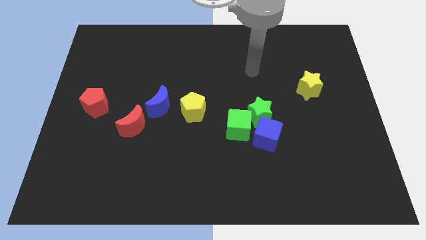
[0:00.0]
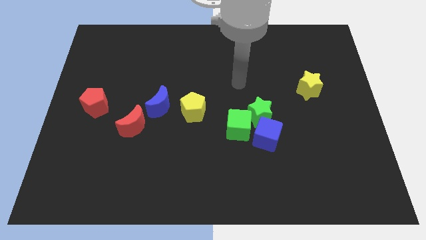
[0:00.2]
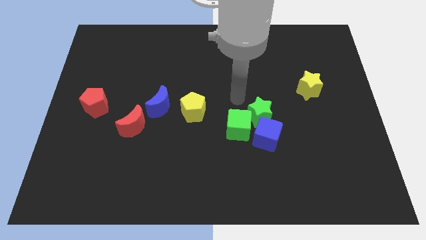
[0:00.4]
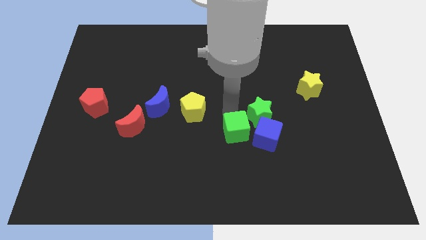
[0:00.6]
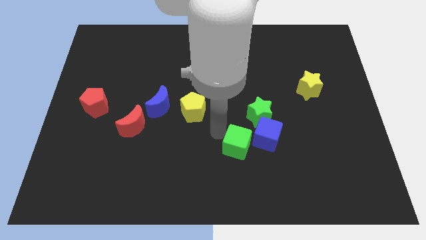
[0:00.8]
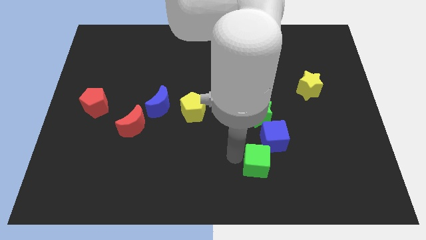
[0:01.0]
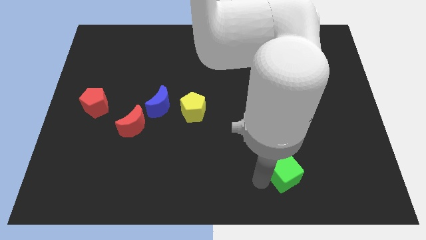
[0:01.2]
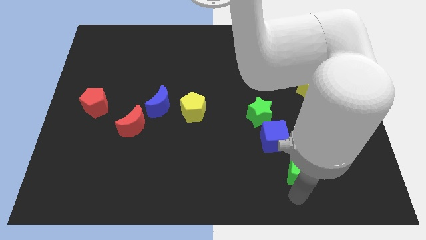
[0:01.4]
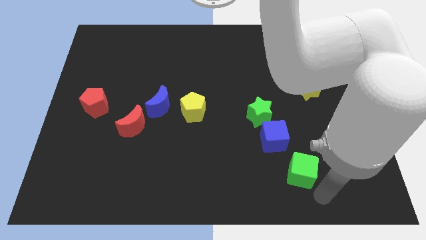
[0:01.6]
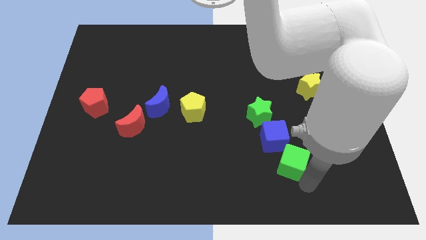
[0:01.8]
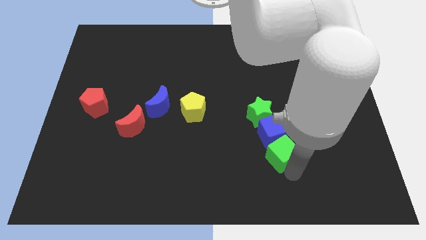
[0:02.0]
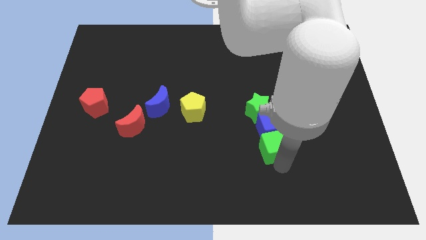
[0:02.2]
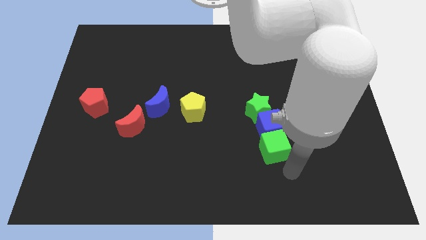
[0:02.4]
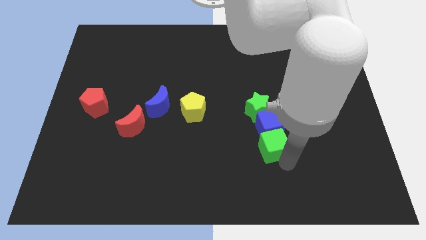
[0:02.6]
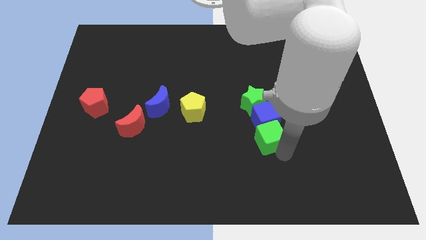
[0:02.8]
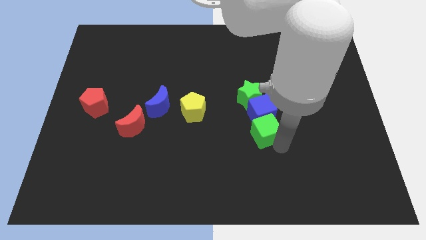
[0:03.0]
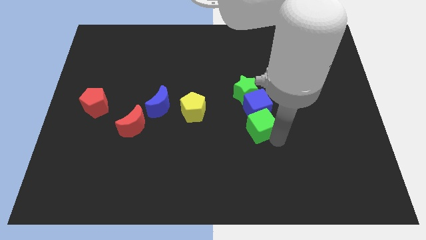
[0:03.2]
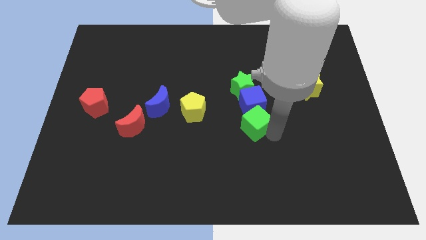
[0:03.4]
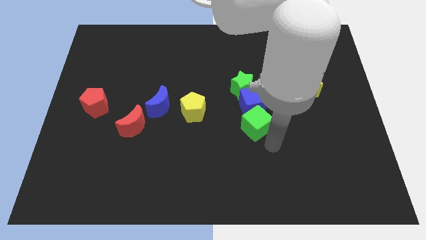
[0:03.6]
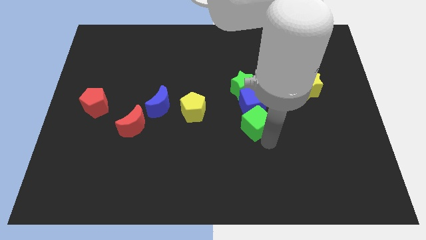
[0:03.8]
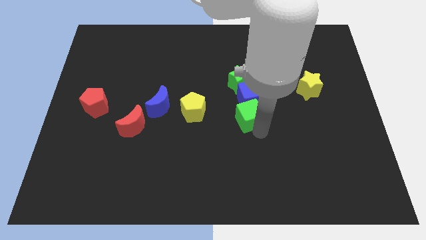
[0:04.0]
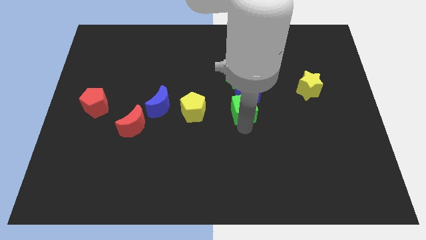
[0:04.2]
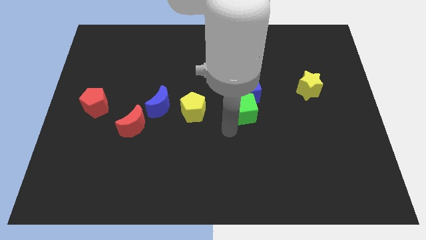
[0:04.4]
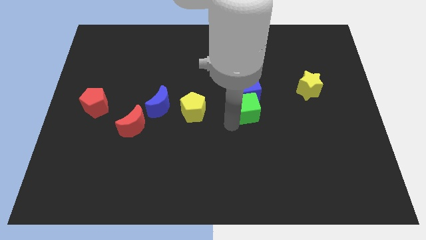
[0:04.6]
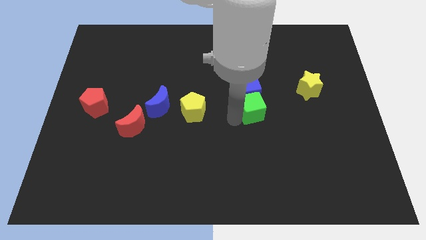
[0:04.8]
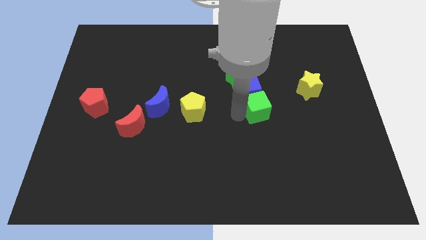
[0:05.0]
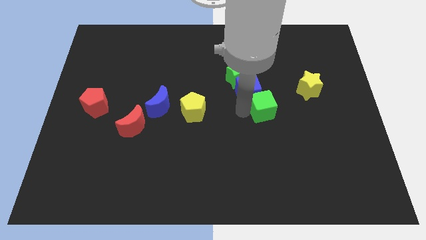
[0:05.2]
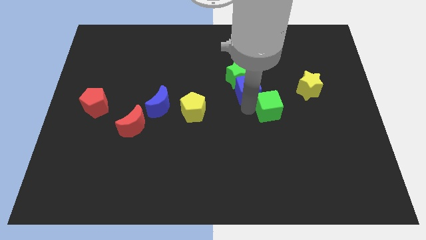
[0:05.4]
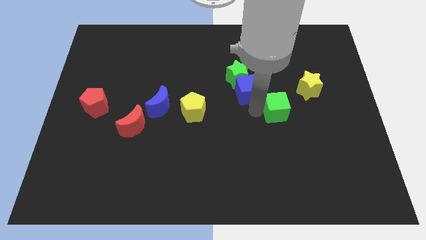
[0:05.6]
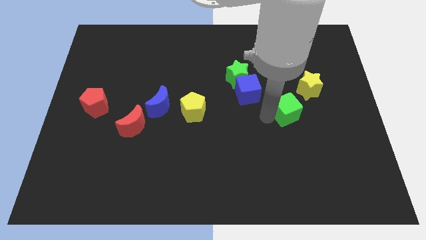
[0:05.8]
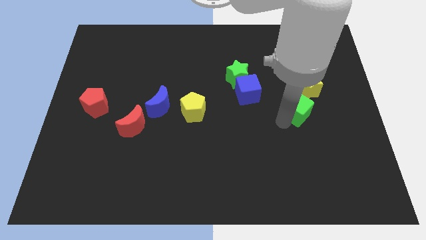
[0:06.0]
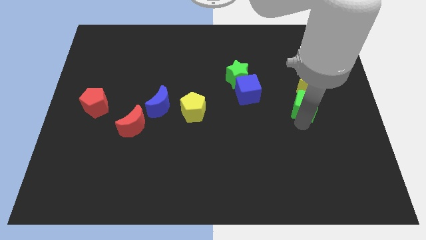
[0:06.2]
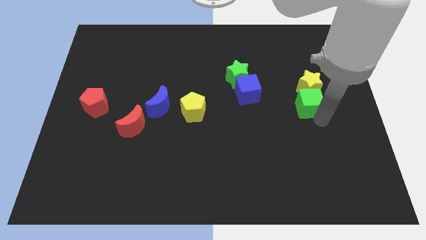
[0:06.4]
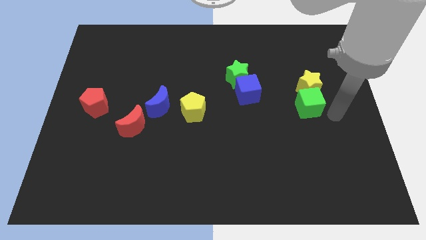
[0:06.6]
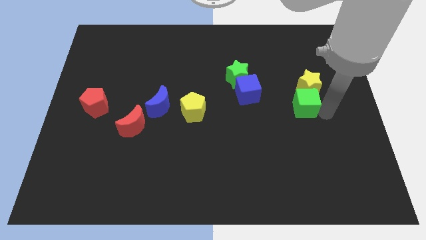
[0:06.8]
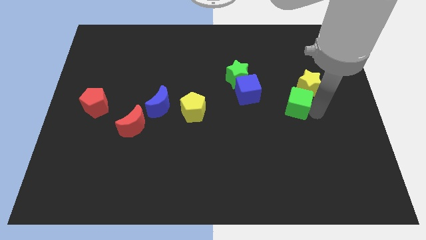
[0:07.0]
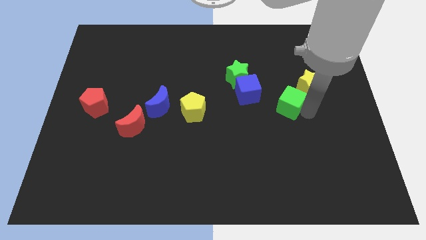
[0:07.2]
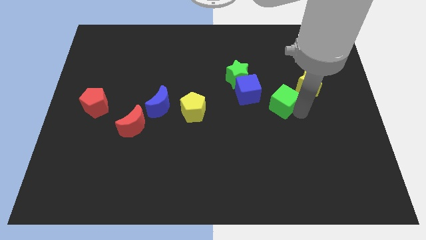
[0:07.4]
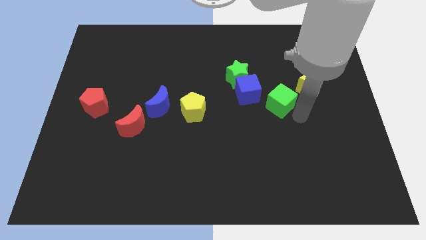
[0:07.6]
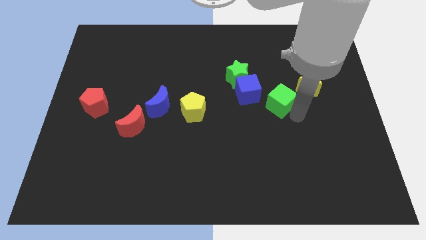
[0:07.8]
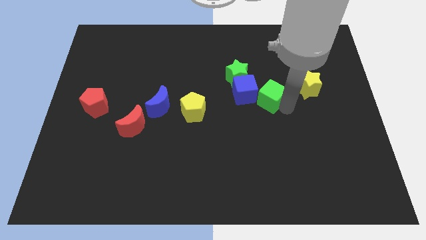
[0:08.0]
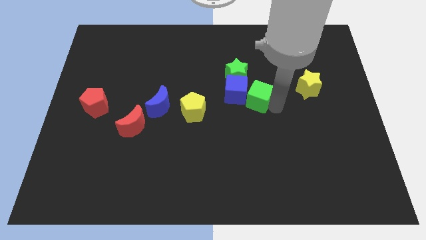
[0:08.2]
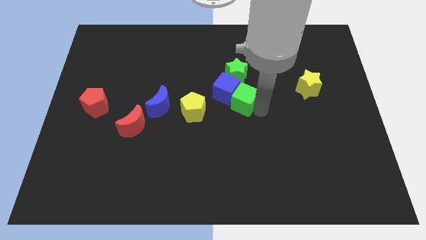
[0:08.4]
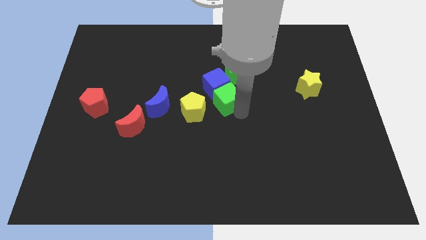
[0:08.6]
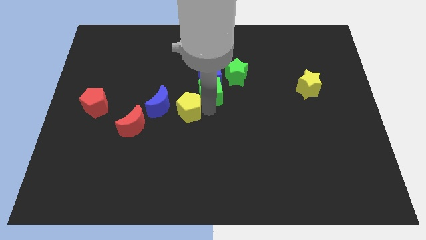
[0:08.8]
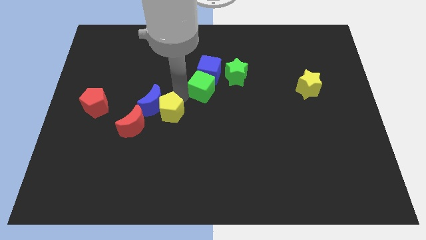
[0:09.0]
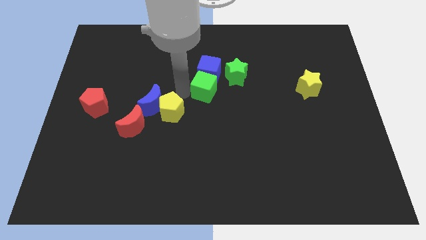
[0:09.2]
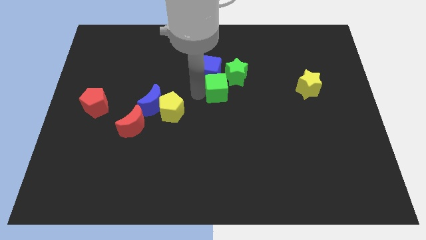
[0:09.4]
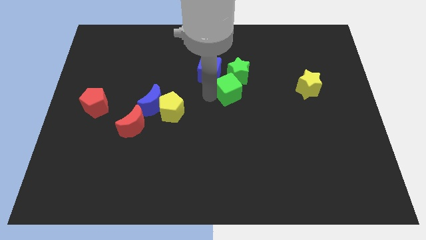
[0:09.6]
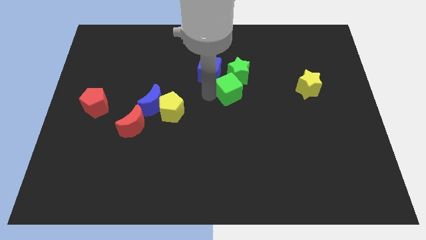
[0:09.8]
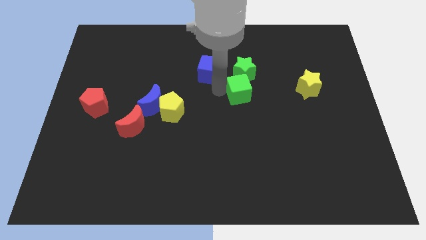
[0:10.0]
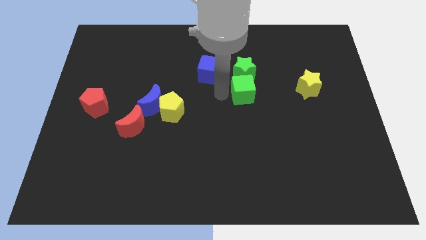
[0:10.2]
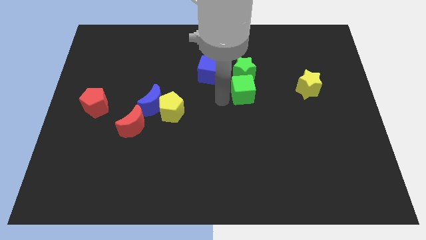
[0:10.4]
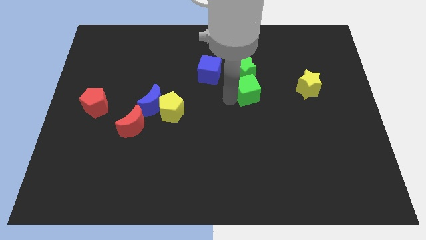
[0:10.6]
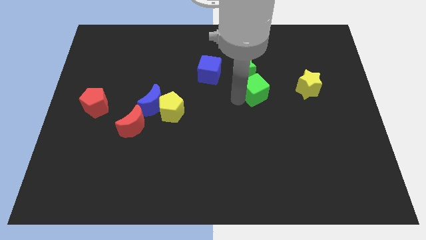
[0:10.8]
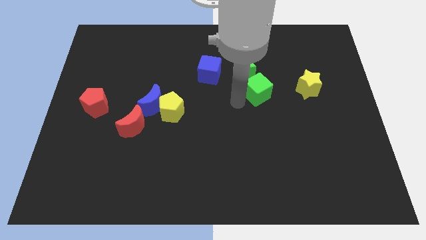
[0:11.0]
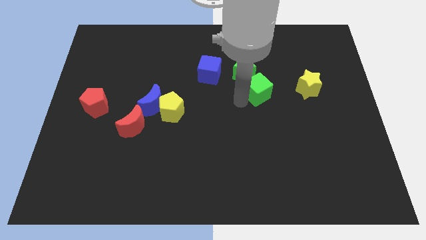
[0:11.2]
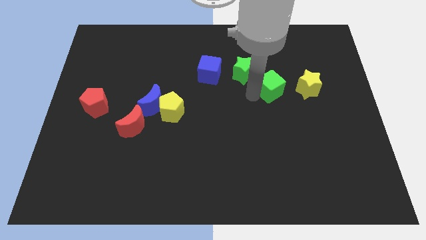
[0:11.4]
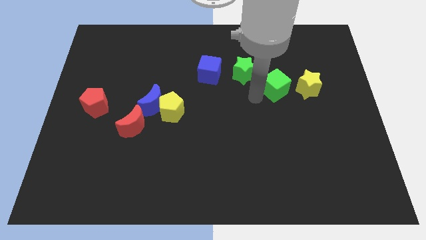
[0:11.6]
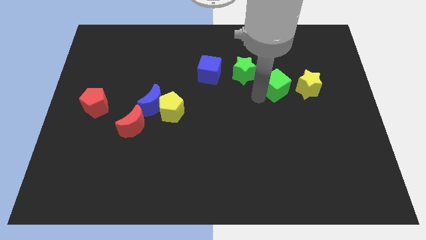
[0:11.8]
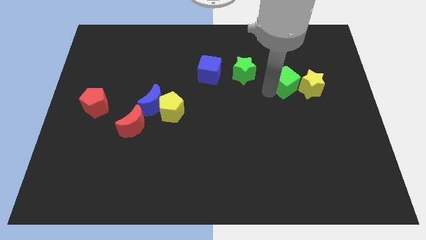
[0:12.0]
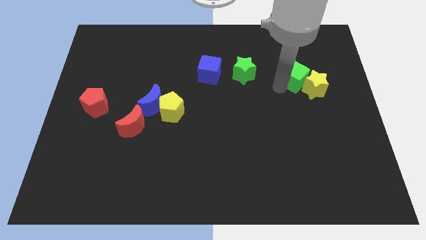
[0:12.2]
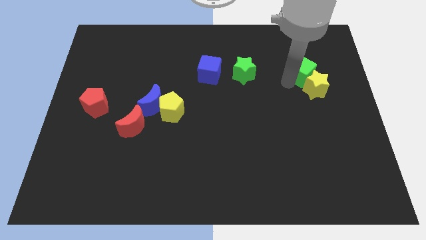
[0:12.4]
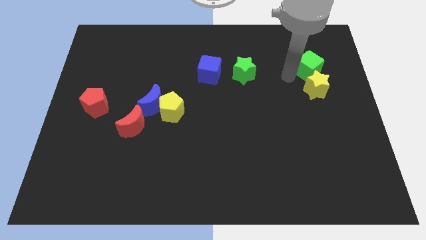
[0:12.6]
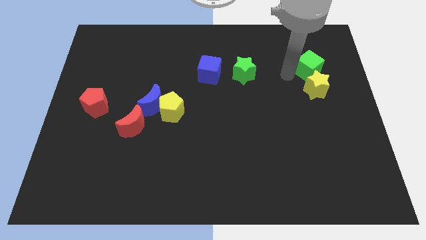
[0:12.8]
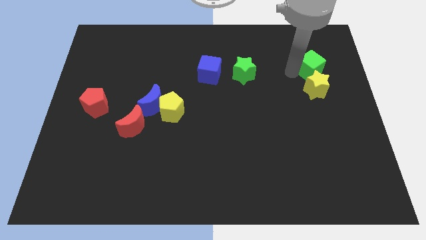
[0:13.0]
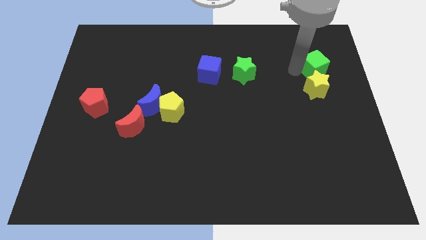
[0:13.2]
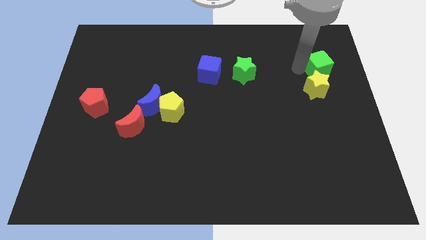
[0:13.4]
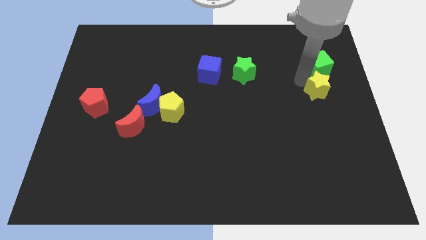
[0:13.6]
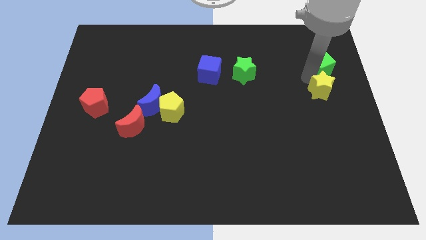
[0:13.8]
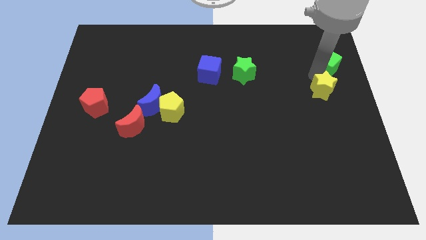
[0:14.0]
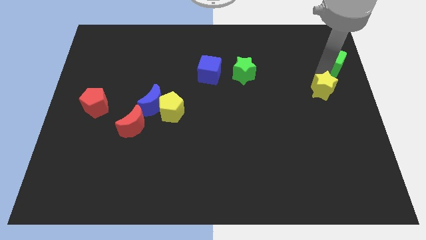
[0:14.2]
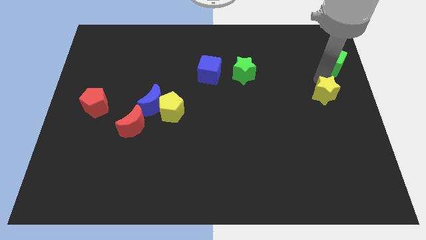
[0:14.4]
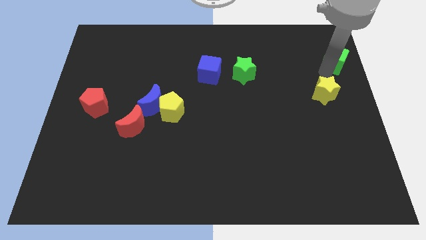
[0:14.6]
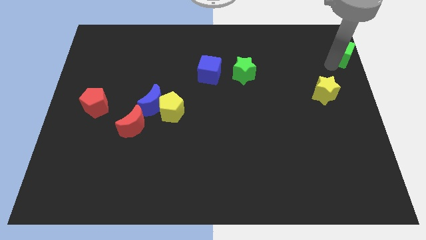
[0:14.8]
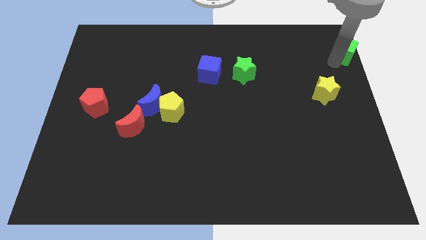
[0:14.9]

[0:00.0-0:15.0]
put the green cube to the top right corner
